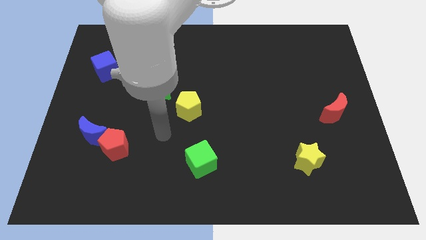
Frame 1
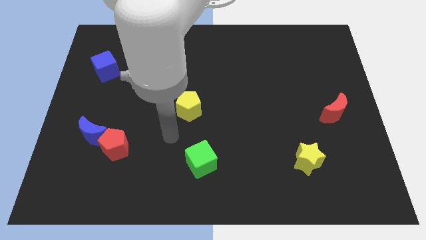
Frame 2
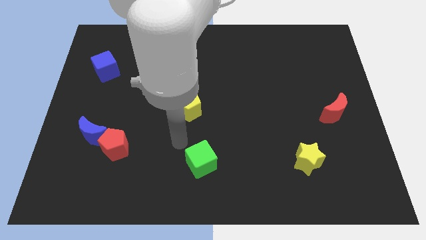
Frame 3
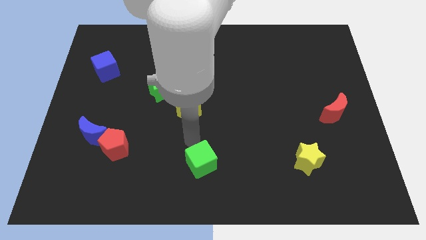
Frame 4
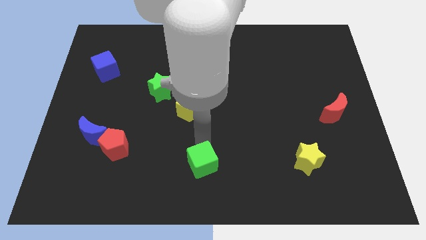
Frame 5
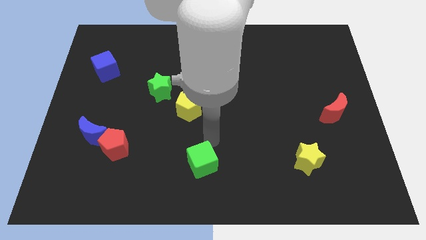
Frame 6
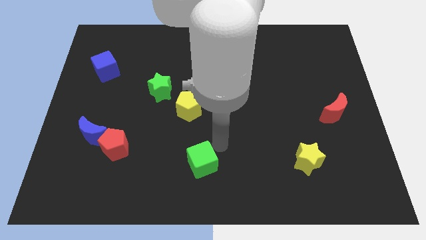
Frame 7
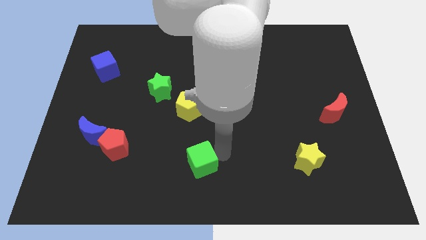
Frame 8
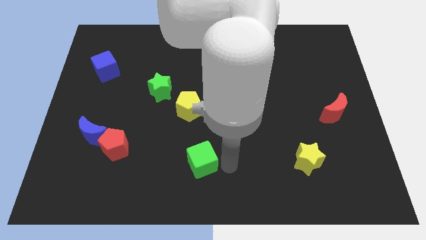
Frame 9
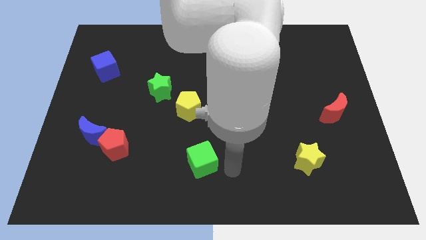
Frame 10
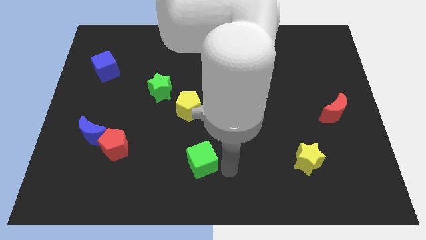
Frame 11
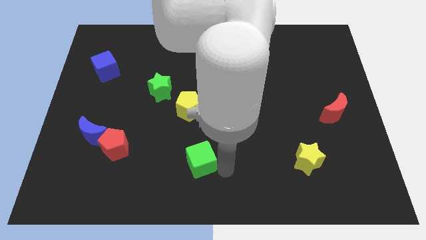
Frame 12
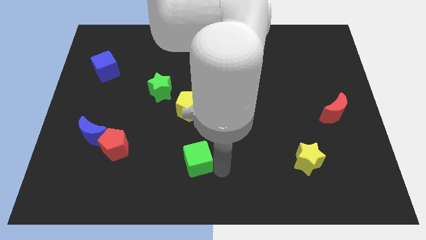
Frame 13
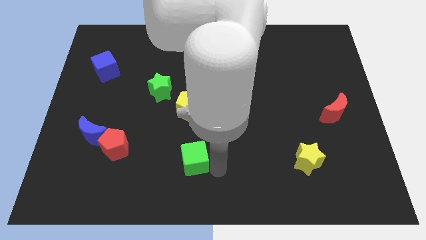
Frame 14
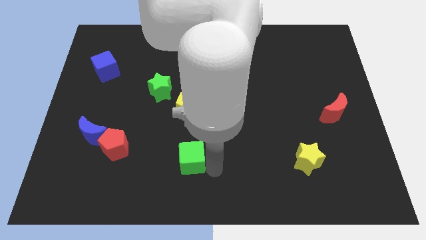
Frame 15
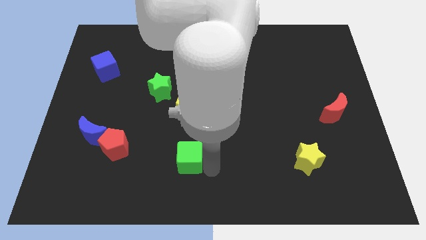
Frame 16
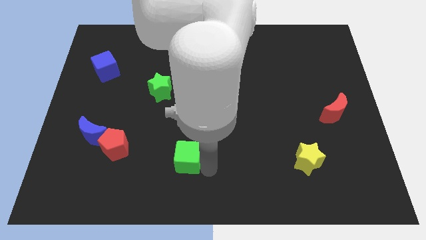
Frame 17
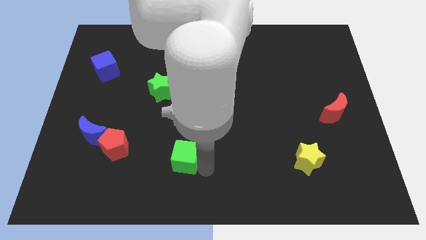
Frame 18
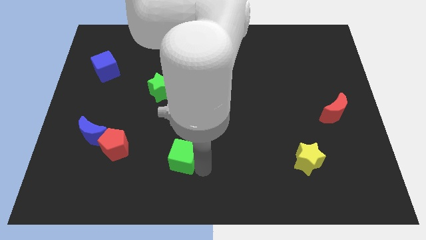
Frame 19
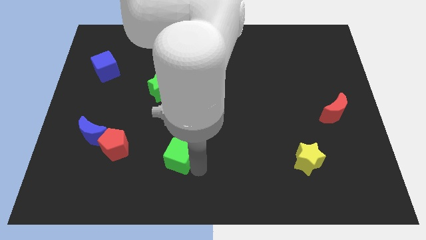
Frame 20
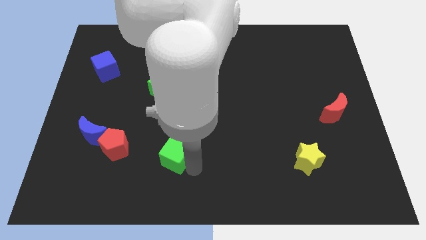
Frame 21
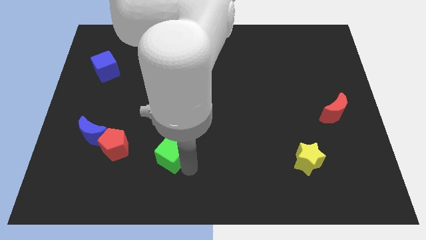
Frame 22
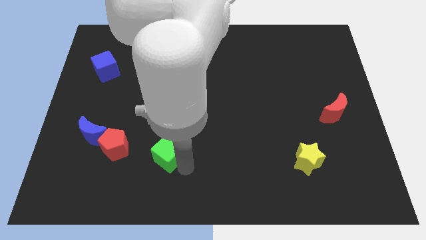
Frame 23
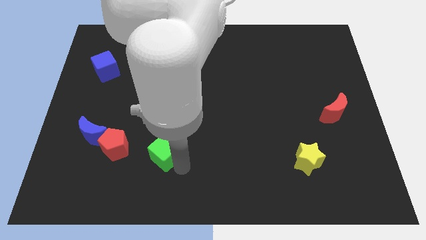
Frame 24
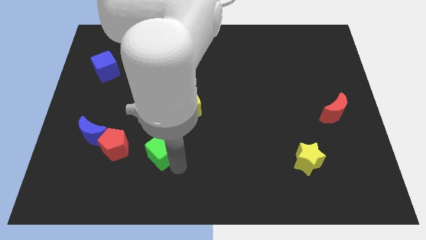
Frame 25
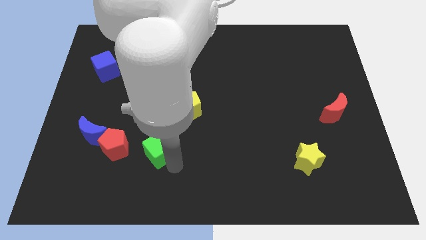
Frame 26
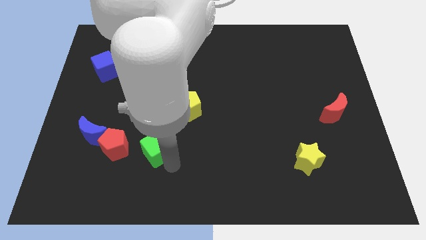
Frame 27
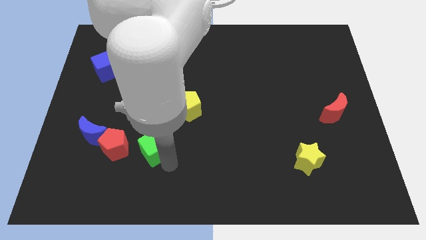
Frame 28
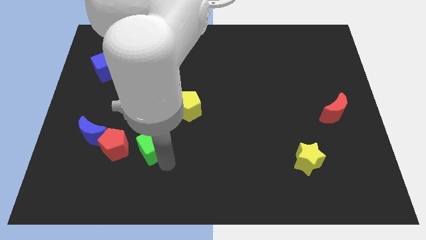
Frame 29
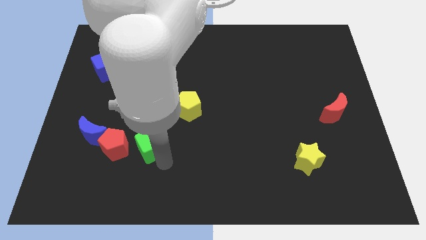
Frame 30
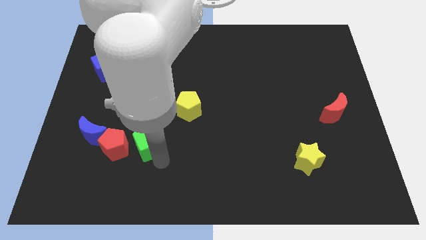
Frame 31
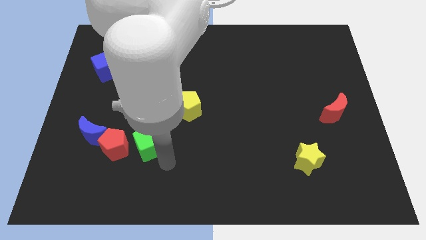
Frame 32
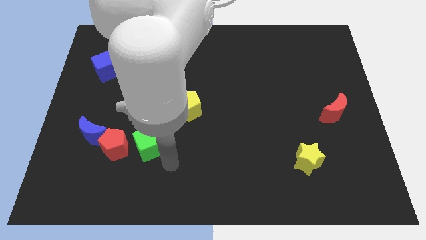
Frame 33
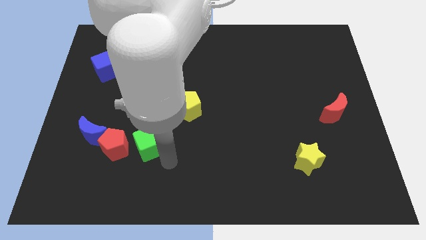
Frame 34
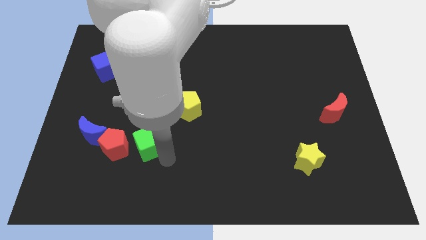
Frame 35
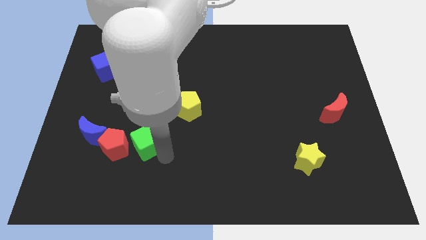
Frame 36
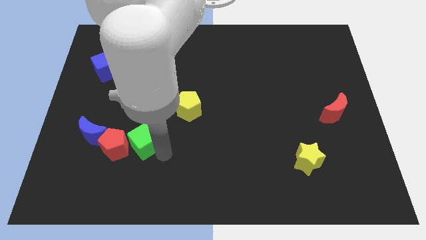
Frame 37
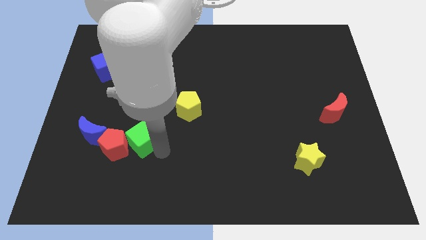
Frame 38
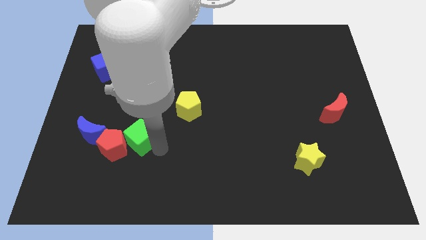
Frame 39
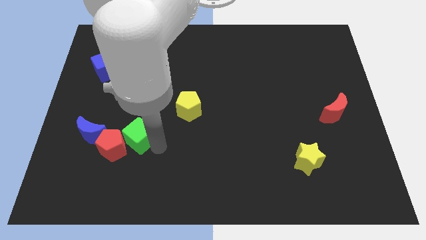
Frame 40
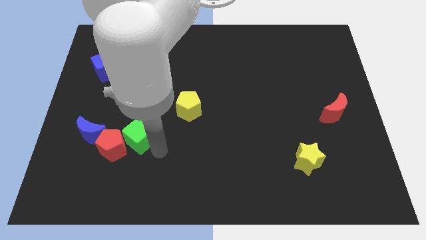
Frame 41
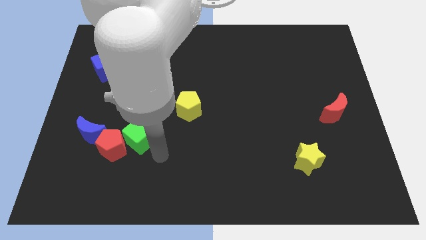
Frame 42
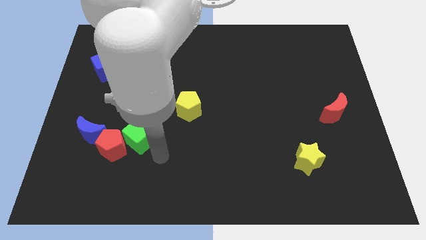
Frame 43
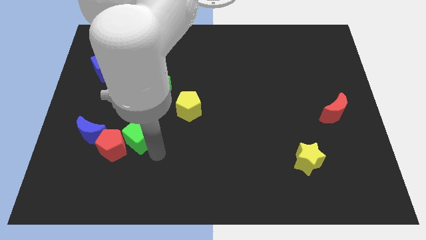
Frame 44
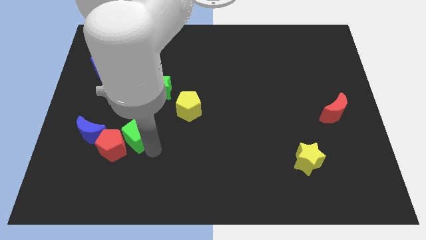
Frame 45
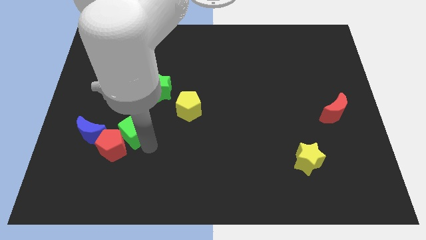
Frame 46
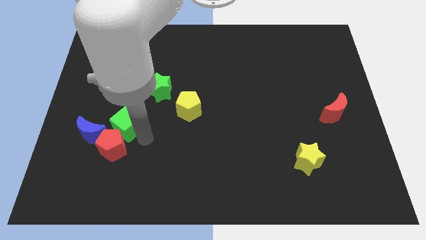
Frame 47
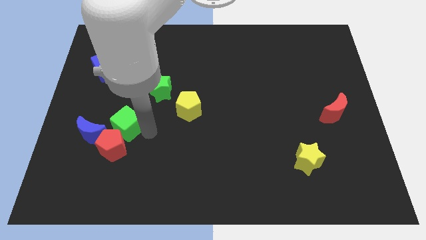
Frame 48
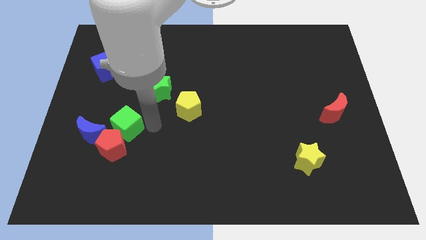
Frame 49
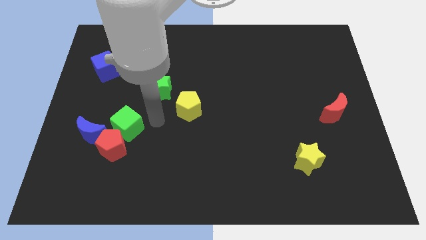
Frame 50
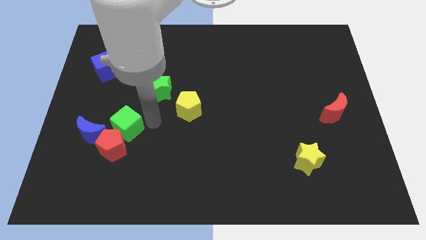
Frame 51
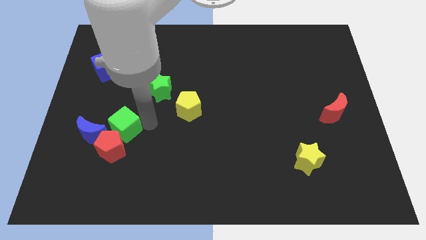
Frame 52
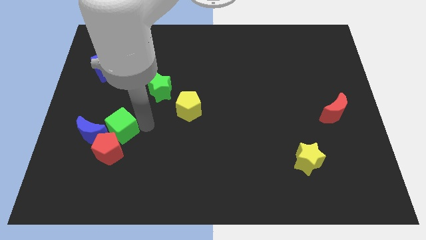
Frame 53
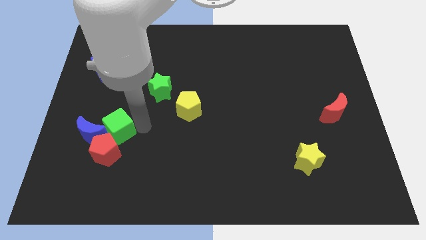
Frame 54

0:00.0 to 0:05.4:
put the green cube close to the blue moon

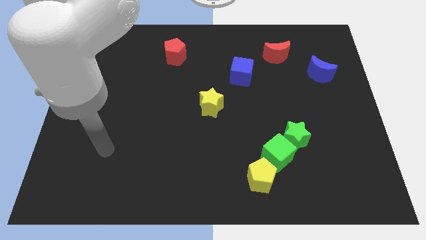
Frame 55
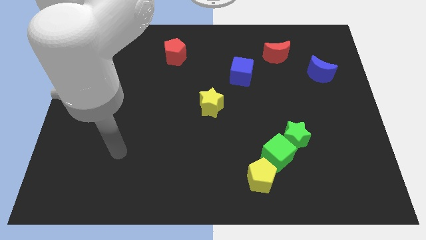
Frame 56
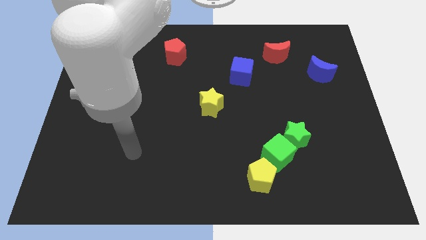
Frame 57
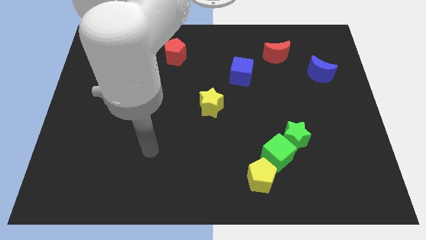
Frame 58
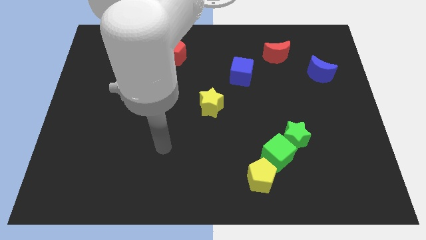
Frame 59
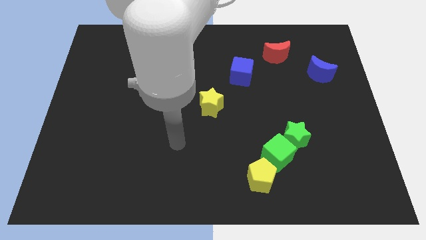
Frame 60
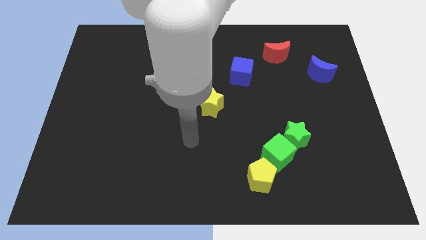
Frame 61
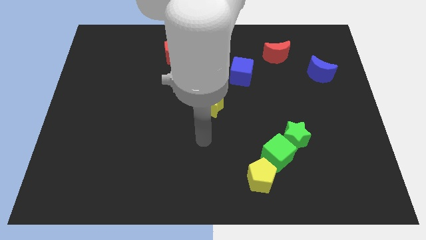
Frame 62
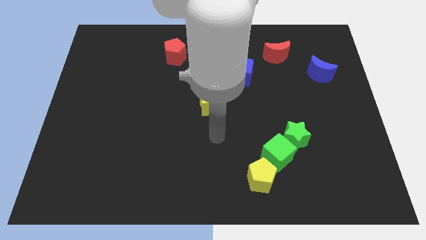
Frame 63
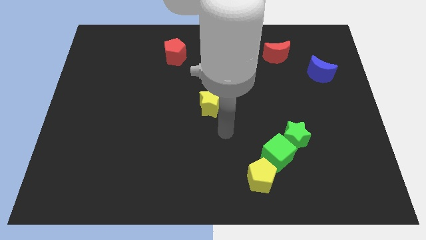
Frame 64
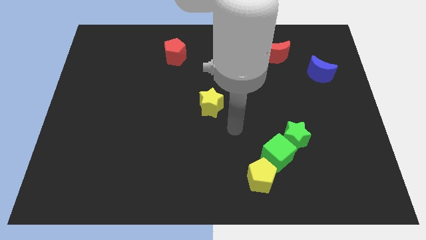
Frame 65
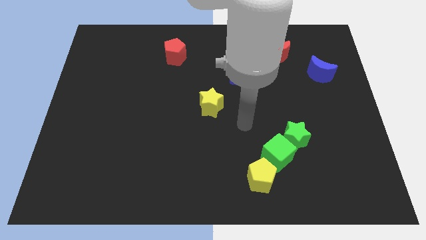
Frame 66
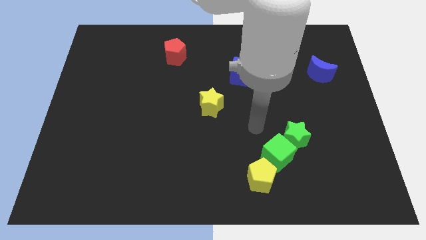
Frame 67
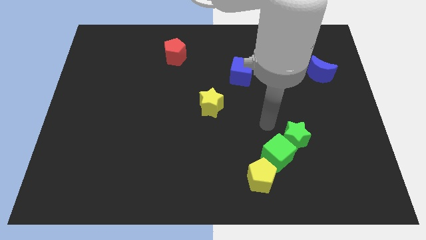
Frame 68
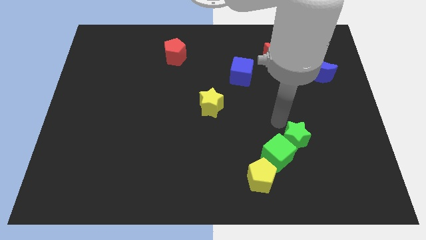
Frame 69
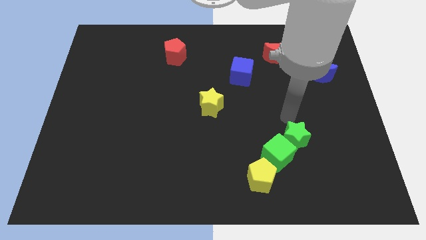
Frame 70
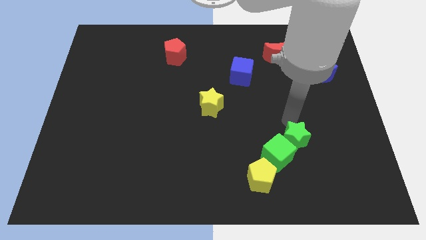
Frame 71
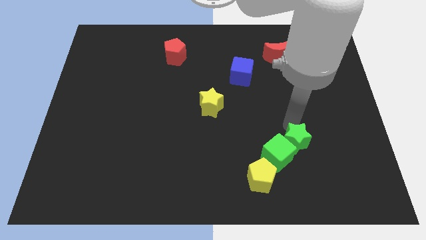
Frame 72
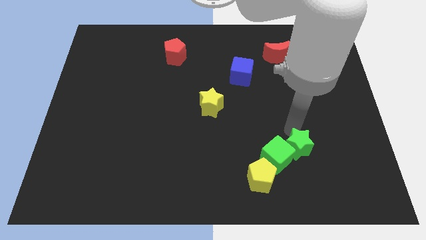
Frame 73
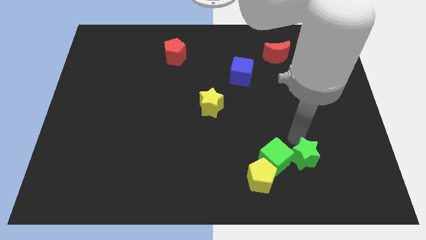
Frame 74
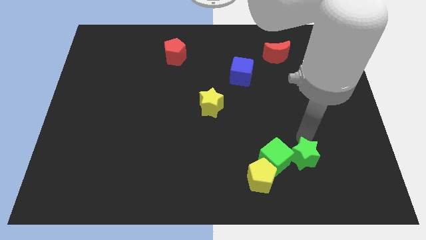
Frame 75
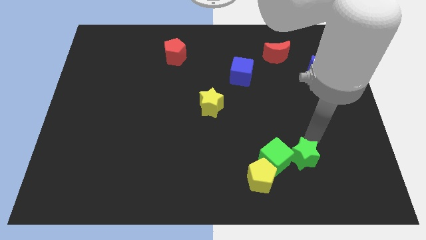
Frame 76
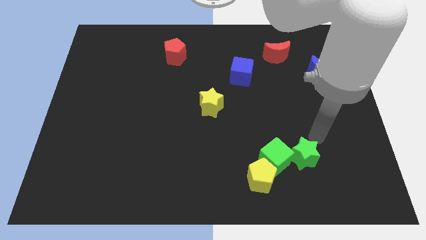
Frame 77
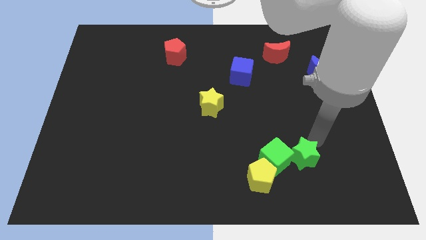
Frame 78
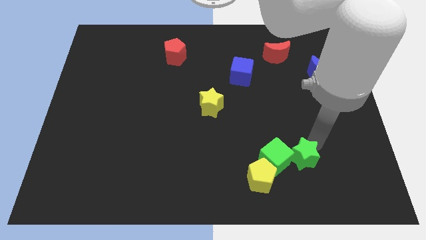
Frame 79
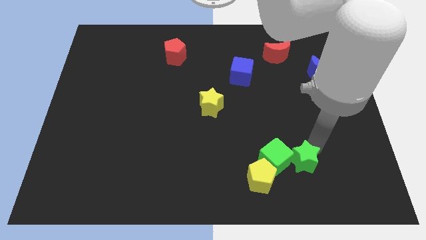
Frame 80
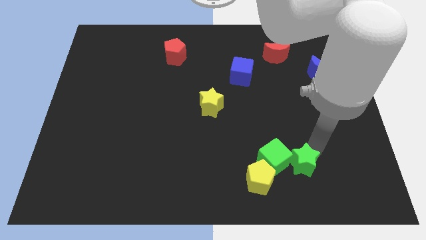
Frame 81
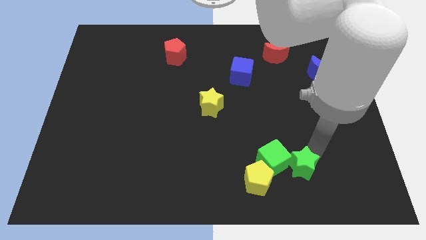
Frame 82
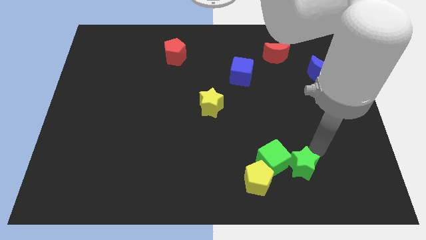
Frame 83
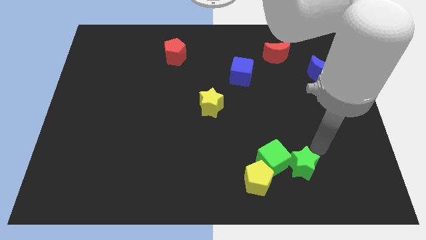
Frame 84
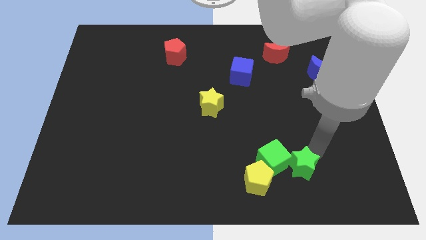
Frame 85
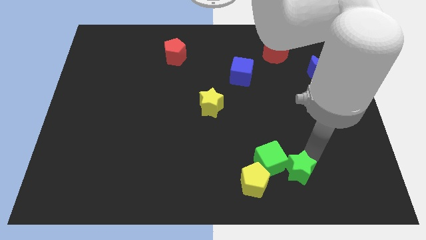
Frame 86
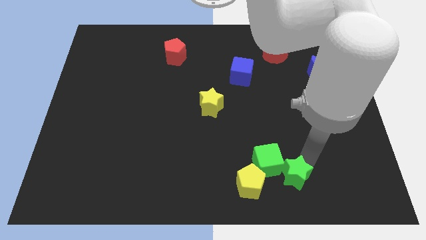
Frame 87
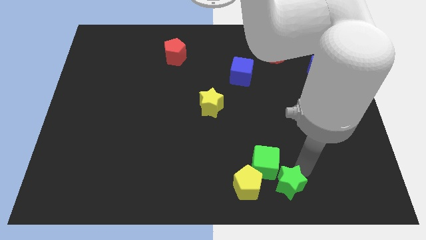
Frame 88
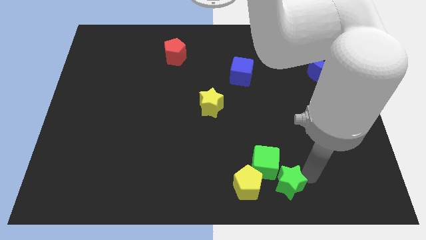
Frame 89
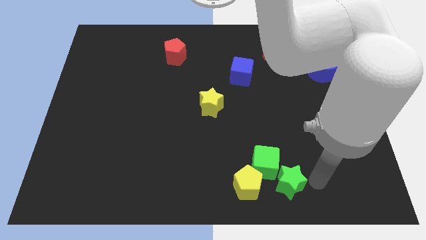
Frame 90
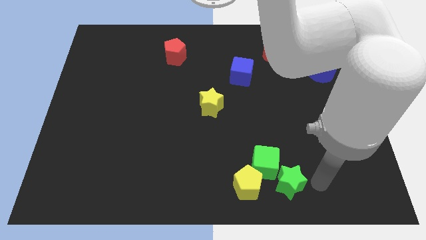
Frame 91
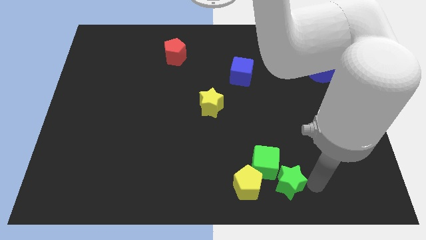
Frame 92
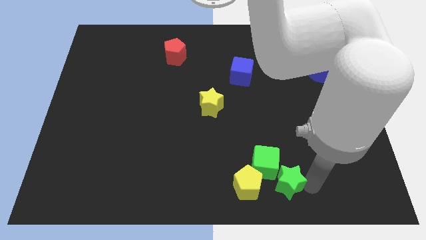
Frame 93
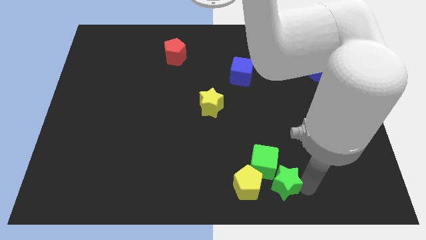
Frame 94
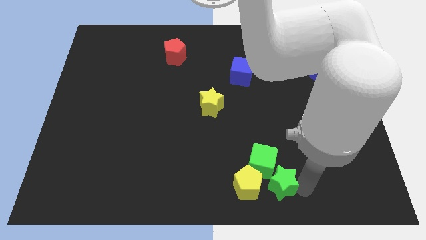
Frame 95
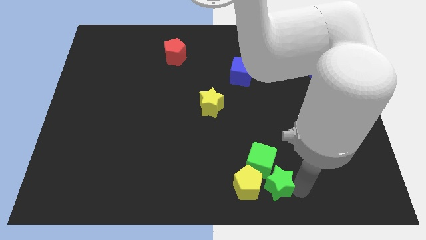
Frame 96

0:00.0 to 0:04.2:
push the green star towards the yellow pentagon
